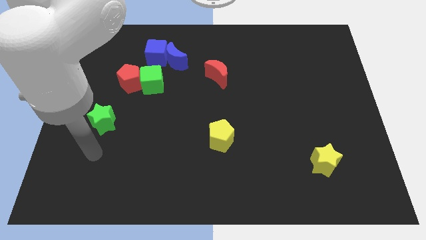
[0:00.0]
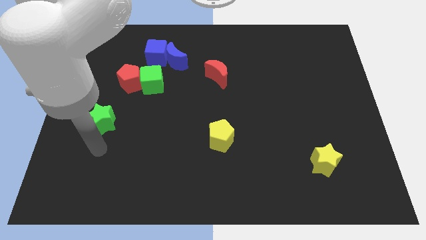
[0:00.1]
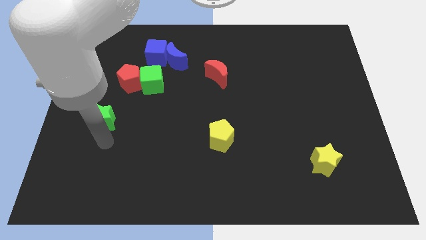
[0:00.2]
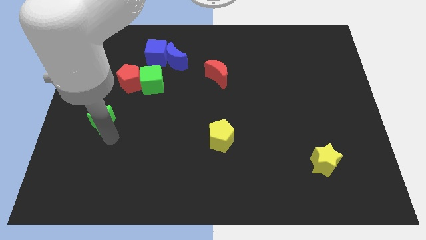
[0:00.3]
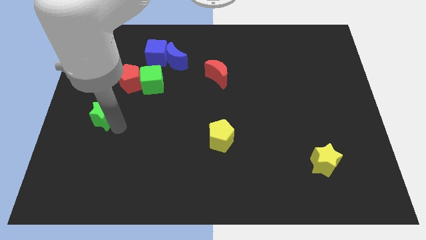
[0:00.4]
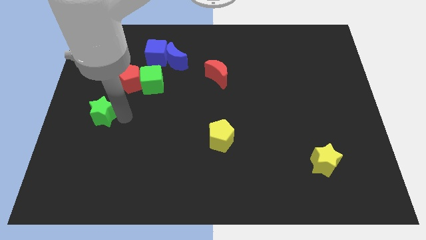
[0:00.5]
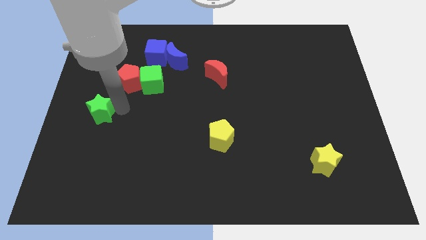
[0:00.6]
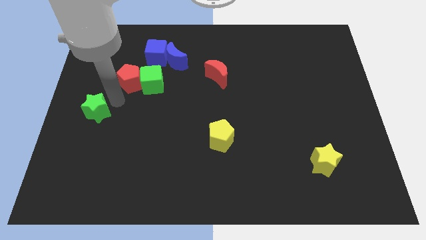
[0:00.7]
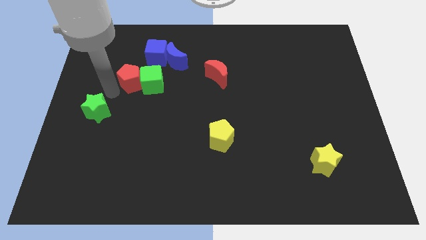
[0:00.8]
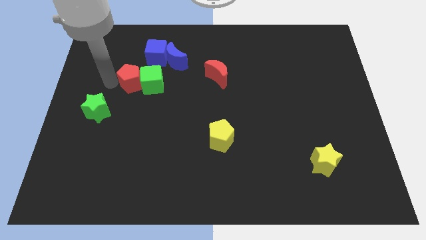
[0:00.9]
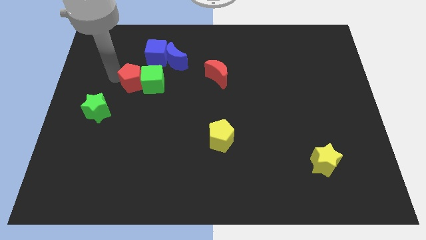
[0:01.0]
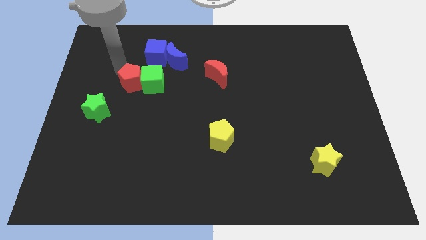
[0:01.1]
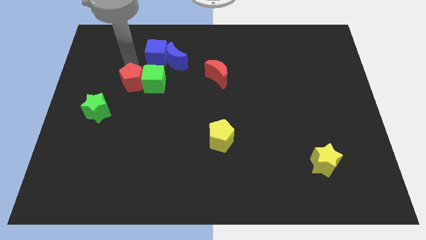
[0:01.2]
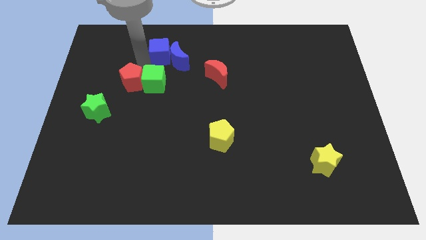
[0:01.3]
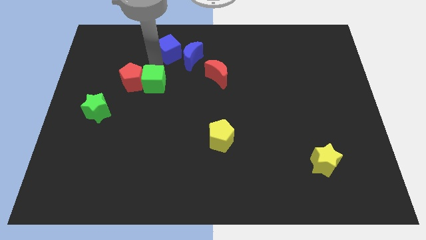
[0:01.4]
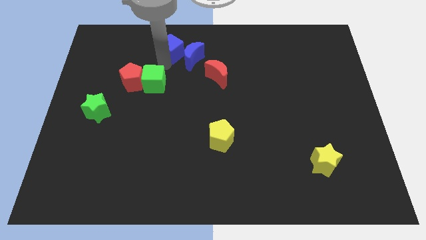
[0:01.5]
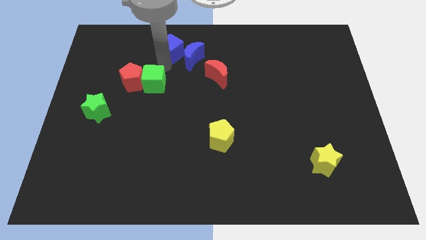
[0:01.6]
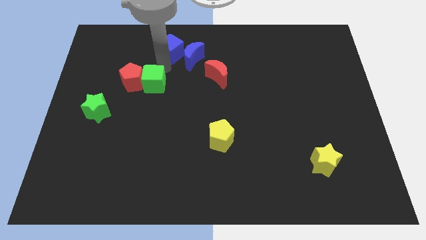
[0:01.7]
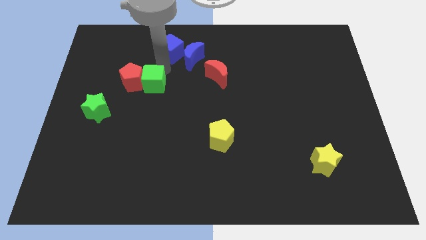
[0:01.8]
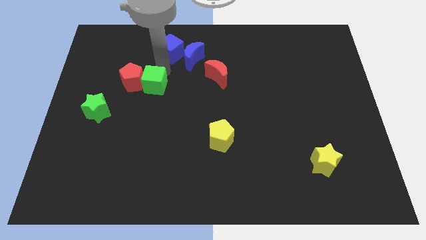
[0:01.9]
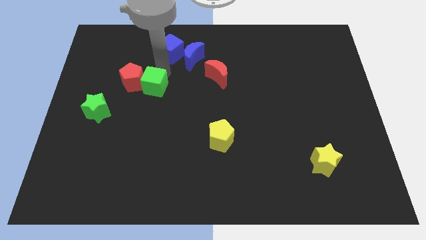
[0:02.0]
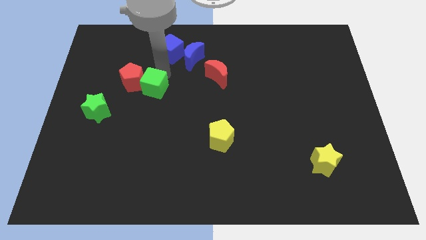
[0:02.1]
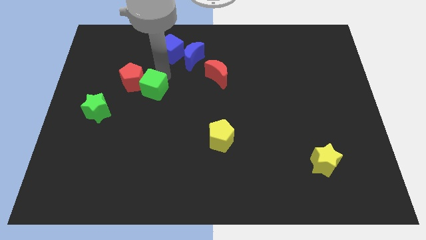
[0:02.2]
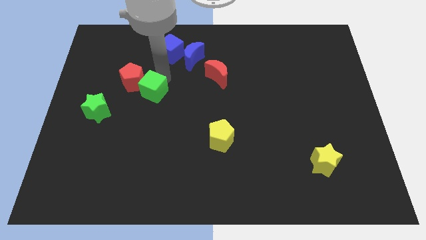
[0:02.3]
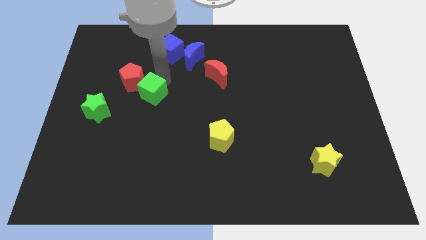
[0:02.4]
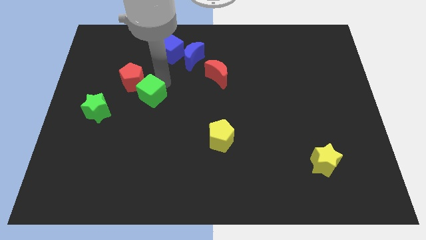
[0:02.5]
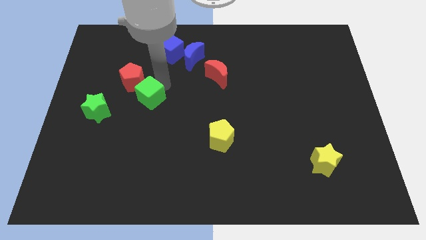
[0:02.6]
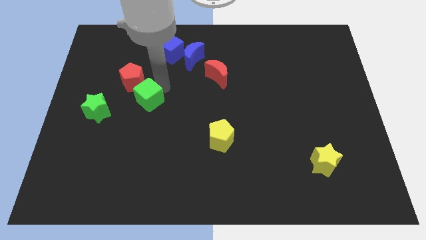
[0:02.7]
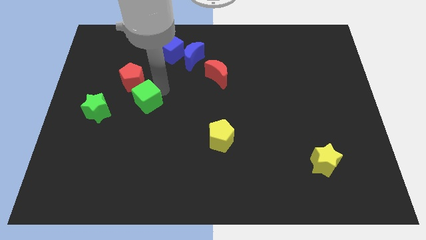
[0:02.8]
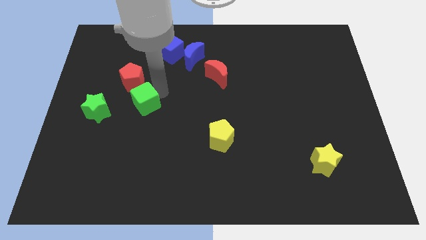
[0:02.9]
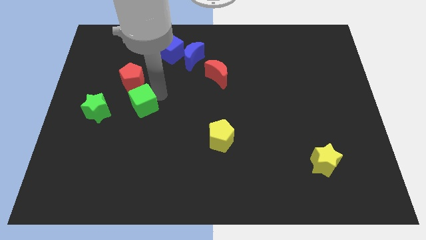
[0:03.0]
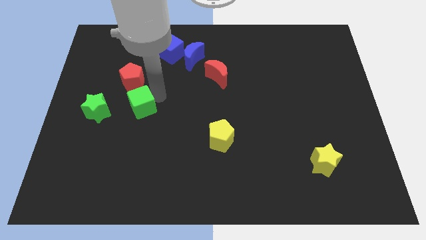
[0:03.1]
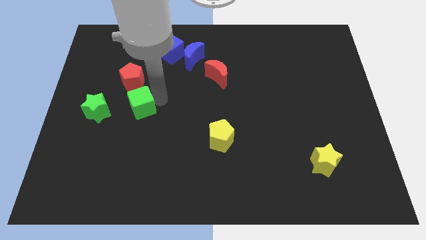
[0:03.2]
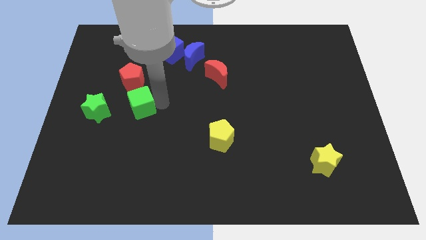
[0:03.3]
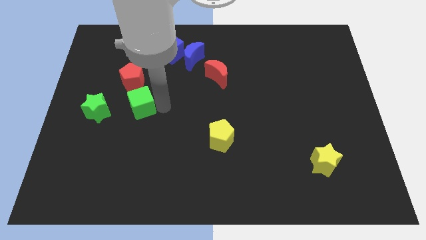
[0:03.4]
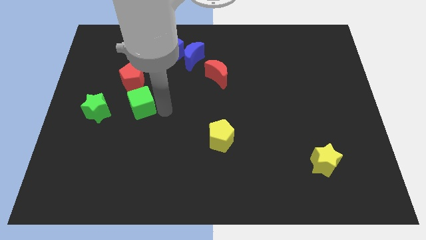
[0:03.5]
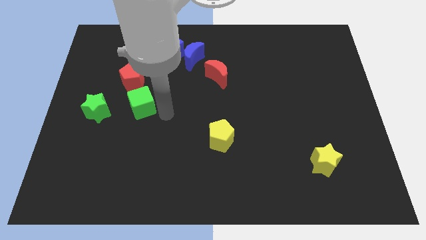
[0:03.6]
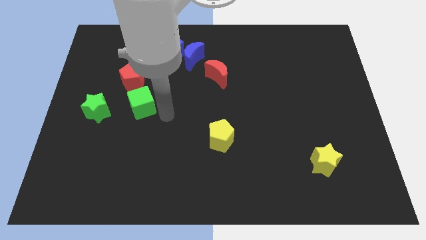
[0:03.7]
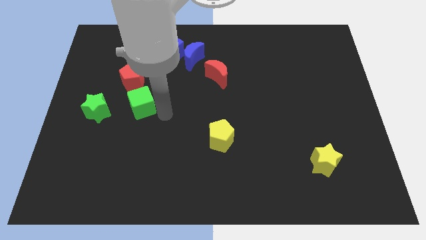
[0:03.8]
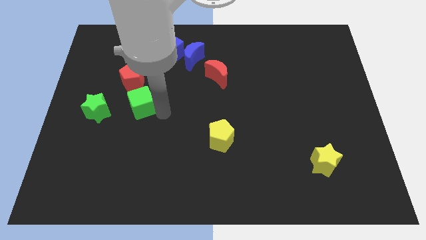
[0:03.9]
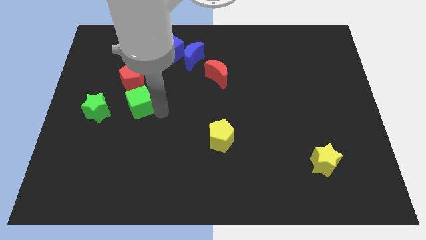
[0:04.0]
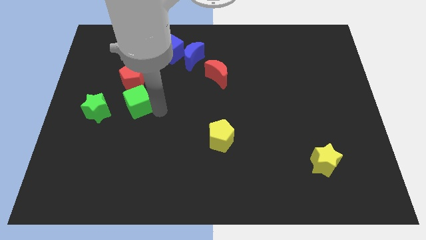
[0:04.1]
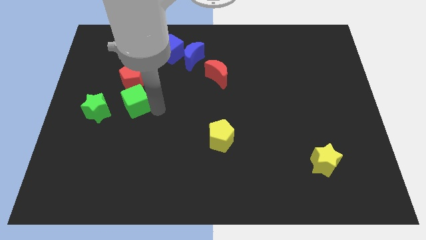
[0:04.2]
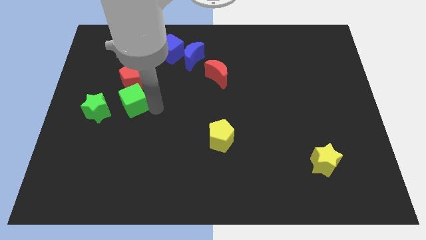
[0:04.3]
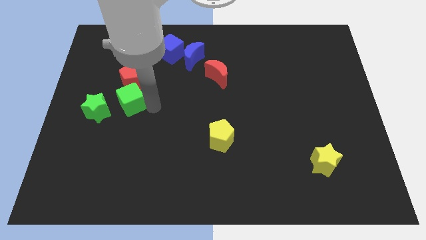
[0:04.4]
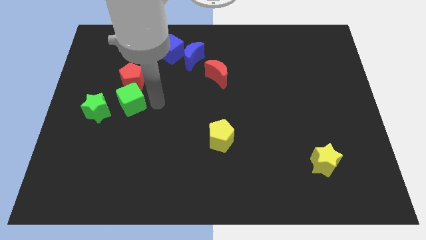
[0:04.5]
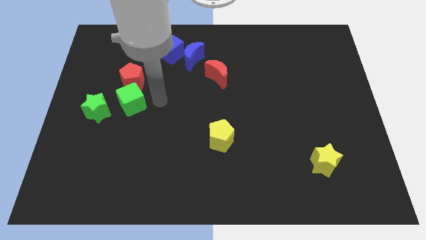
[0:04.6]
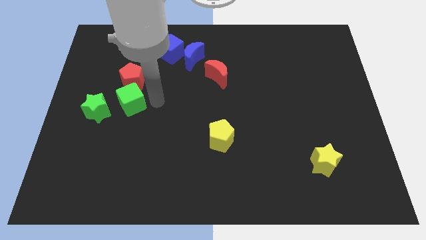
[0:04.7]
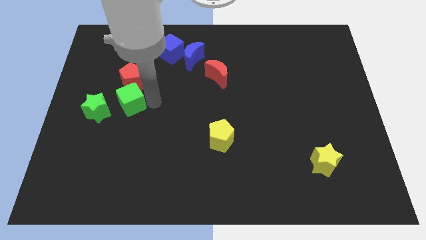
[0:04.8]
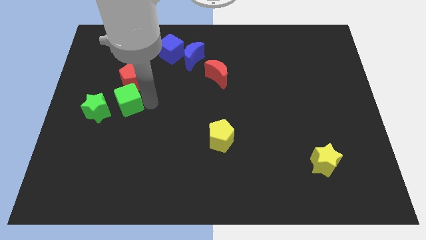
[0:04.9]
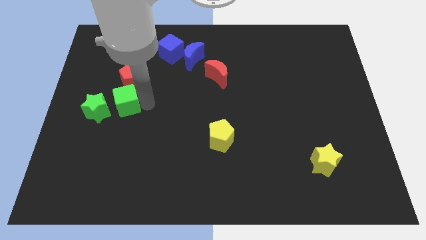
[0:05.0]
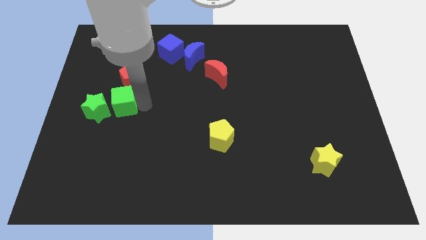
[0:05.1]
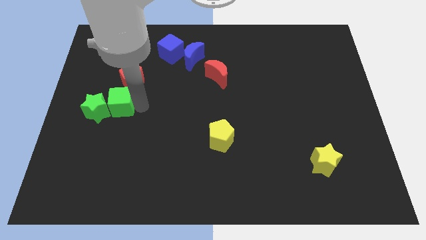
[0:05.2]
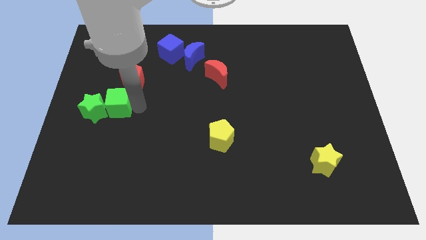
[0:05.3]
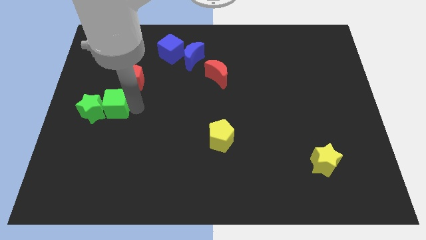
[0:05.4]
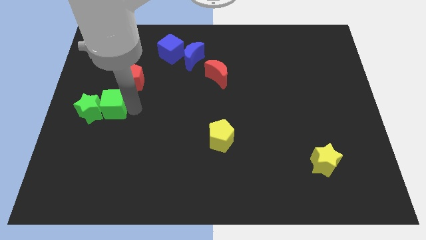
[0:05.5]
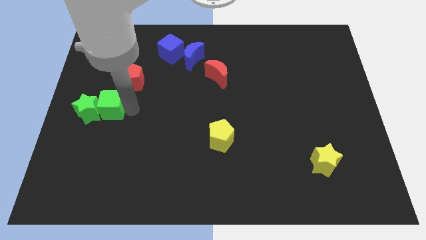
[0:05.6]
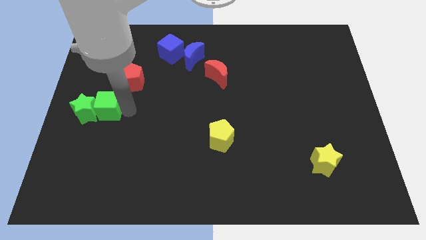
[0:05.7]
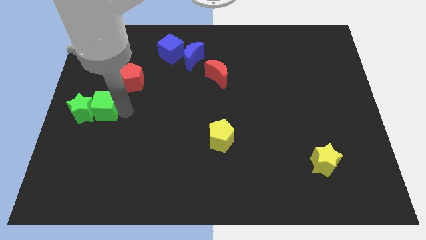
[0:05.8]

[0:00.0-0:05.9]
push the green cube to the left side of the board

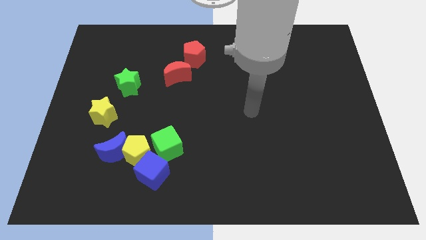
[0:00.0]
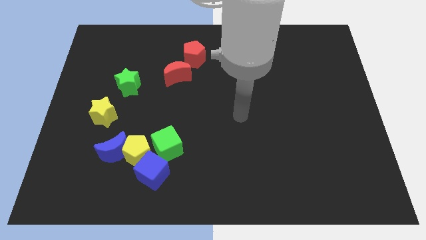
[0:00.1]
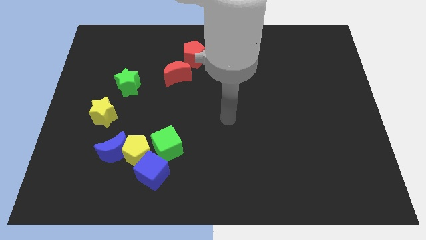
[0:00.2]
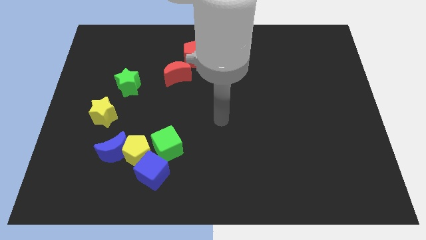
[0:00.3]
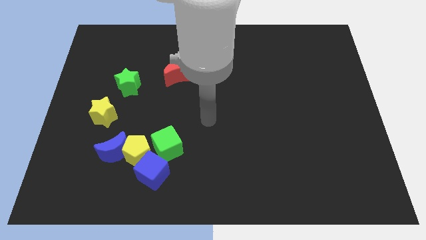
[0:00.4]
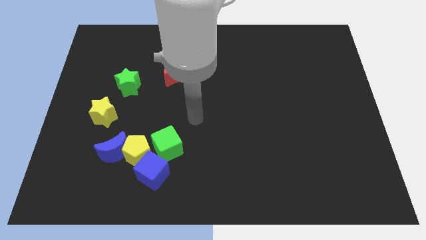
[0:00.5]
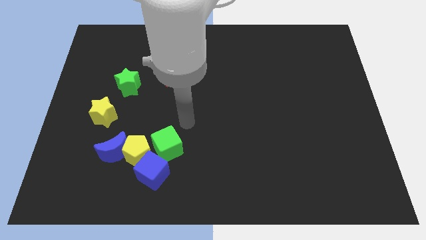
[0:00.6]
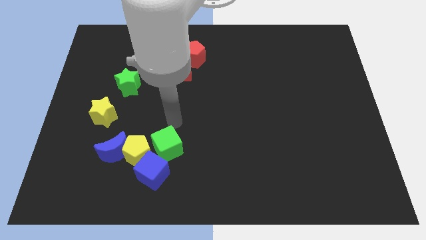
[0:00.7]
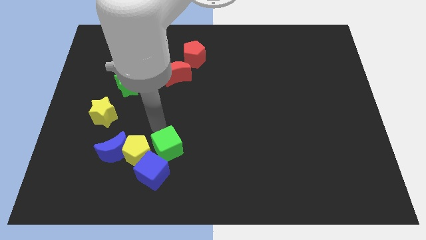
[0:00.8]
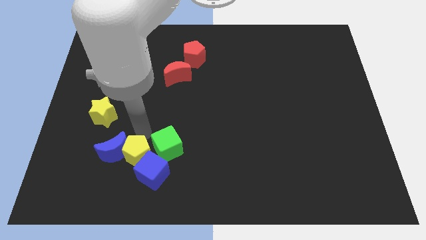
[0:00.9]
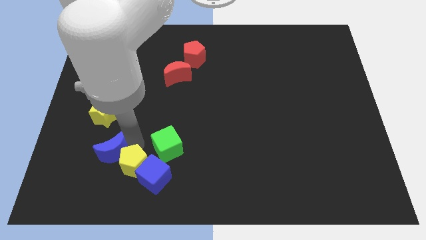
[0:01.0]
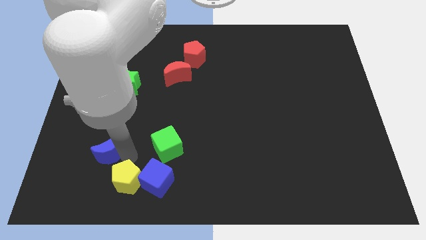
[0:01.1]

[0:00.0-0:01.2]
move the blue cube to the bottom side
